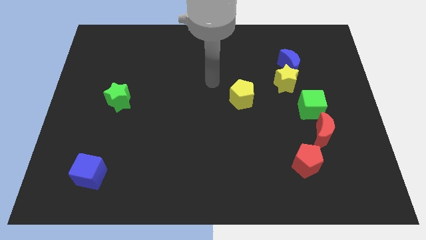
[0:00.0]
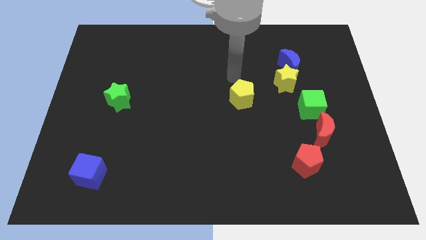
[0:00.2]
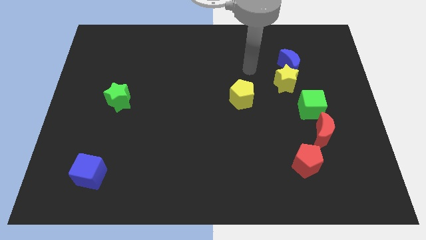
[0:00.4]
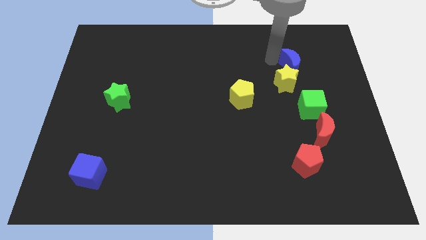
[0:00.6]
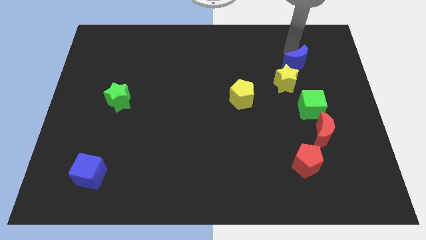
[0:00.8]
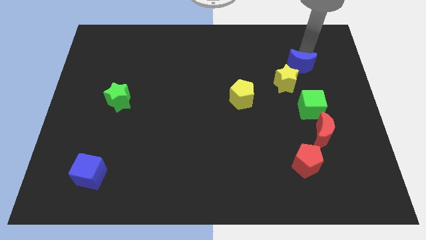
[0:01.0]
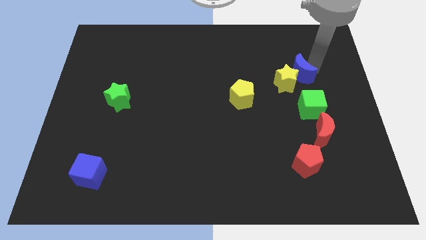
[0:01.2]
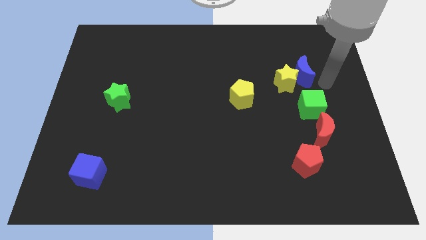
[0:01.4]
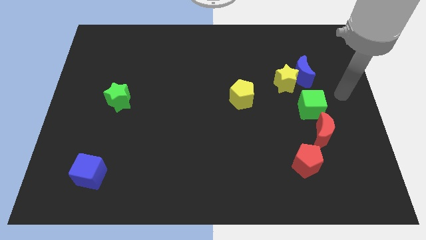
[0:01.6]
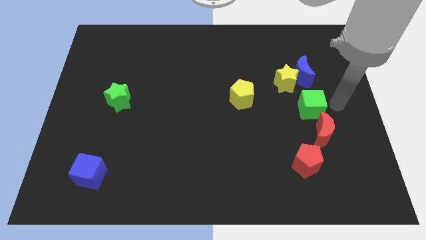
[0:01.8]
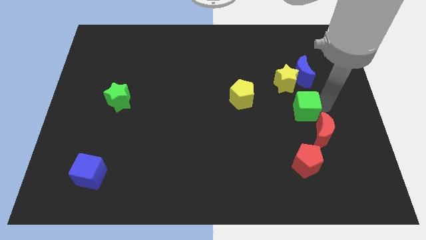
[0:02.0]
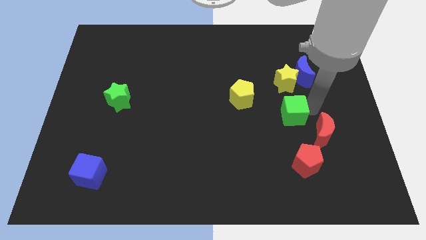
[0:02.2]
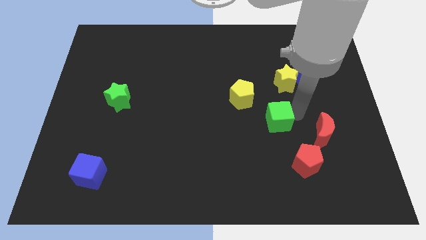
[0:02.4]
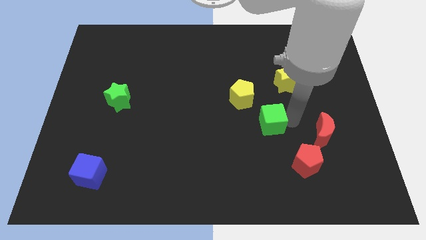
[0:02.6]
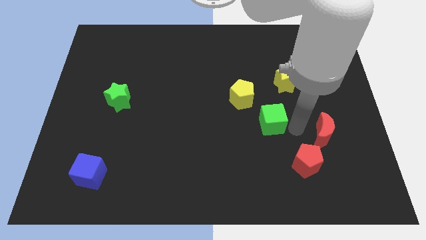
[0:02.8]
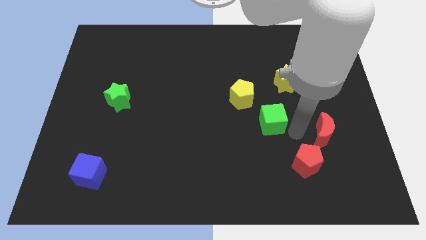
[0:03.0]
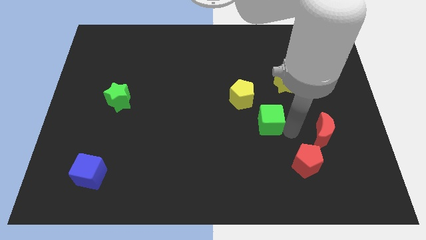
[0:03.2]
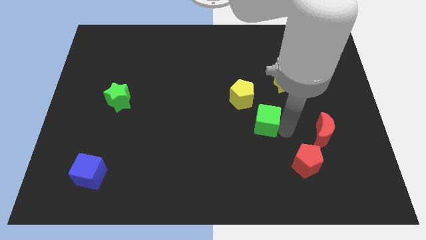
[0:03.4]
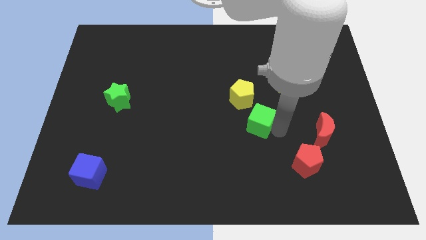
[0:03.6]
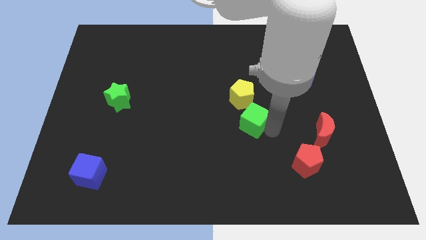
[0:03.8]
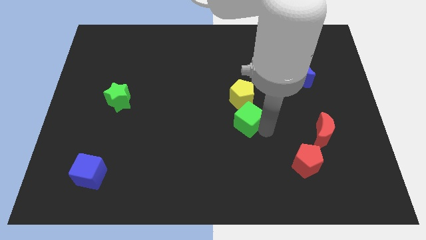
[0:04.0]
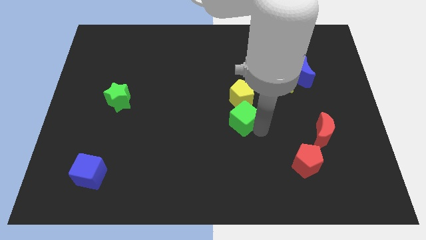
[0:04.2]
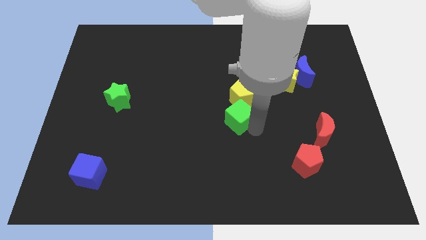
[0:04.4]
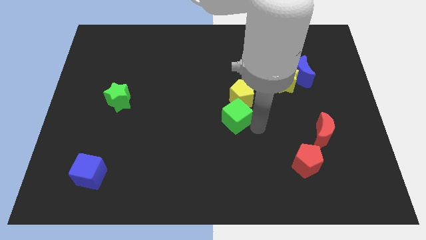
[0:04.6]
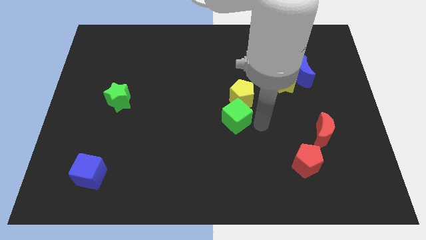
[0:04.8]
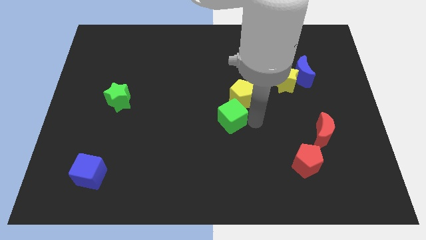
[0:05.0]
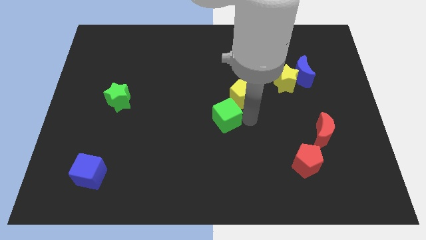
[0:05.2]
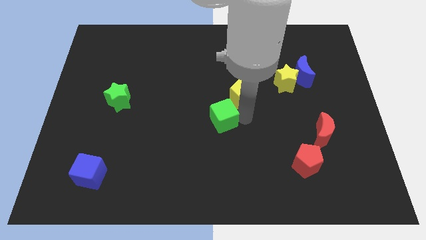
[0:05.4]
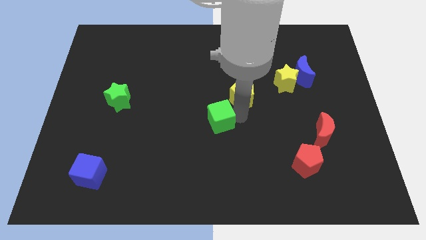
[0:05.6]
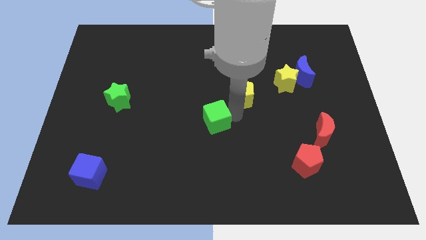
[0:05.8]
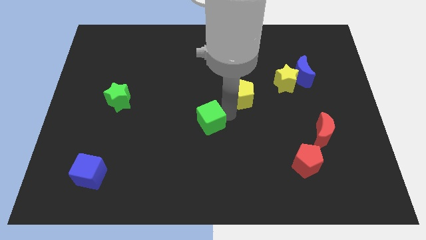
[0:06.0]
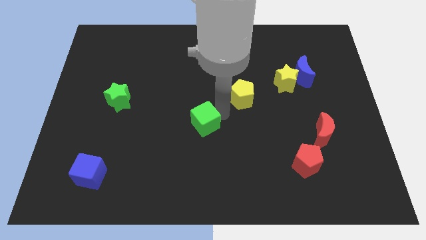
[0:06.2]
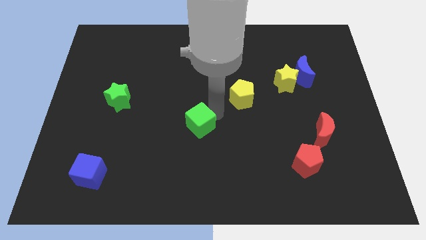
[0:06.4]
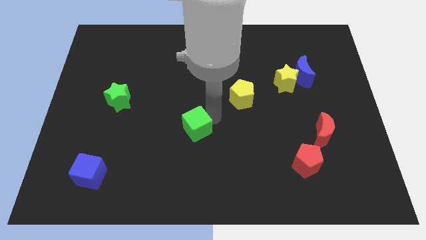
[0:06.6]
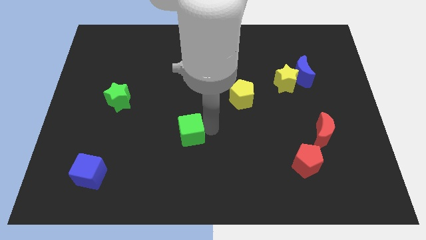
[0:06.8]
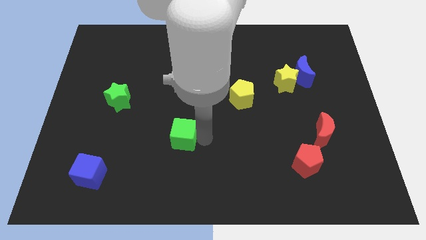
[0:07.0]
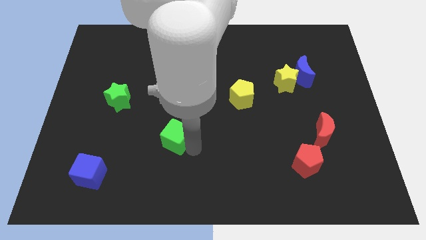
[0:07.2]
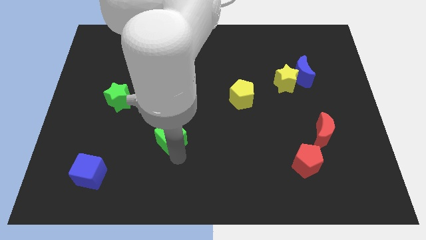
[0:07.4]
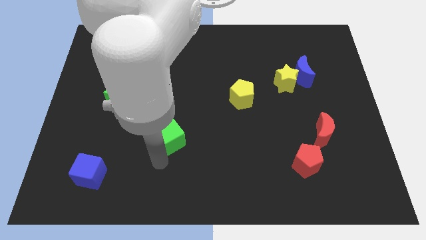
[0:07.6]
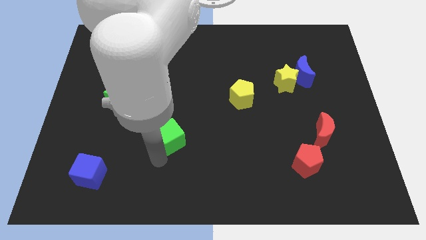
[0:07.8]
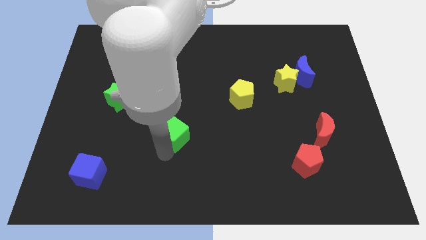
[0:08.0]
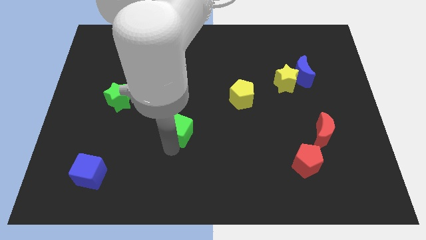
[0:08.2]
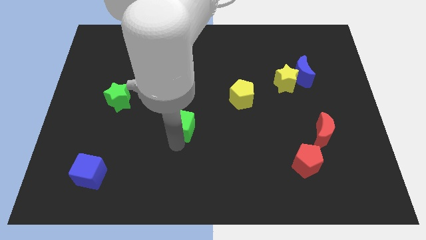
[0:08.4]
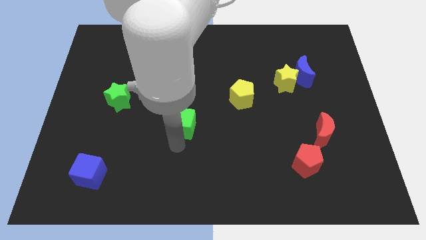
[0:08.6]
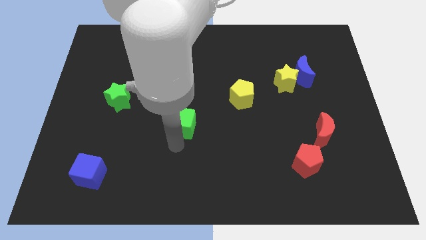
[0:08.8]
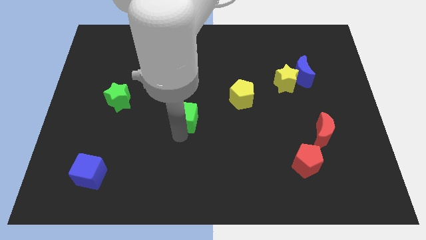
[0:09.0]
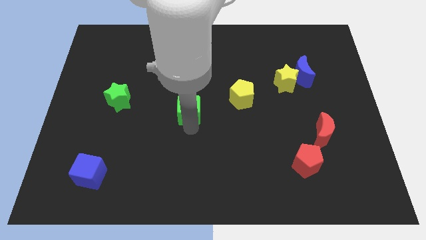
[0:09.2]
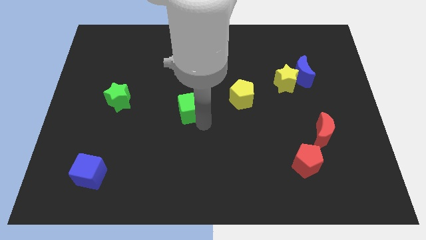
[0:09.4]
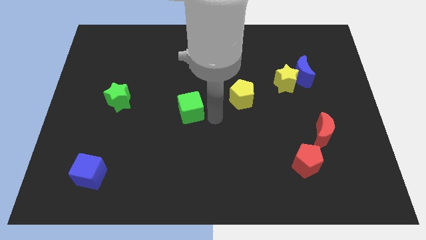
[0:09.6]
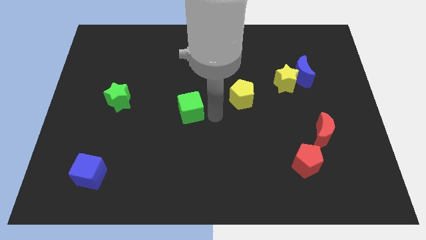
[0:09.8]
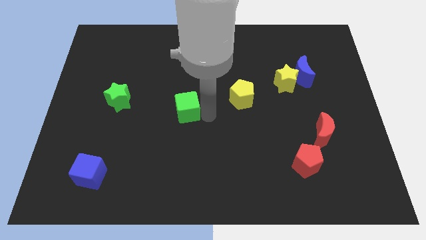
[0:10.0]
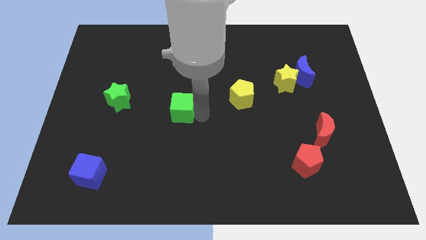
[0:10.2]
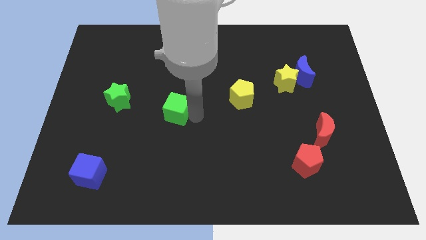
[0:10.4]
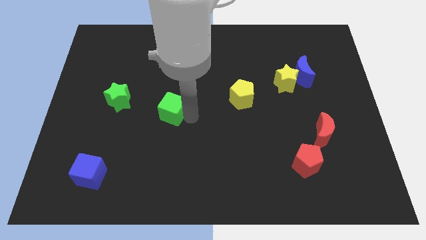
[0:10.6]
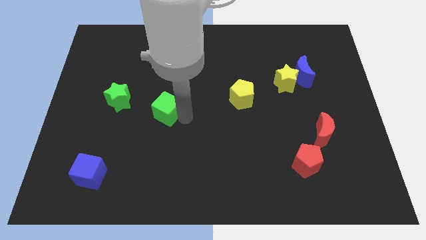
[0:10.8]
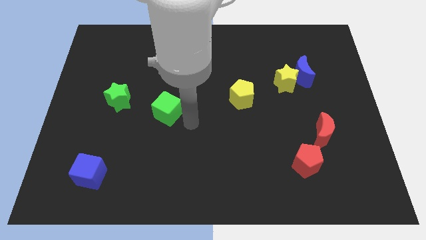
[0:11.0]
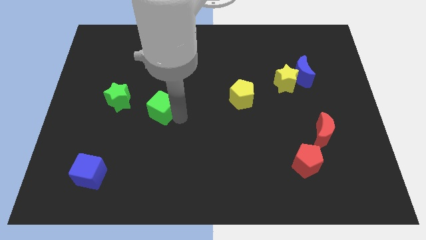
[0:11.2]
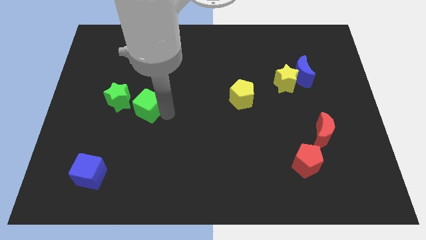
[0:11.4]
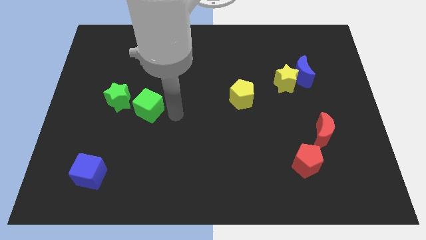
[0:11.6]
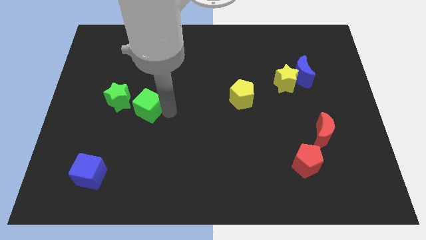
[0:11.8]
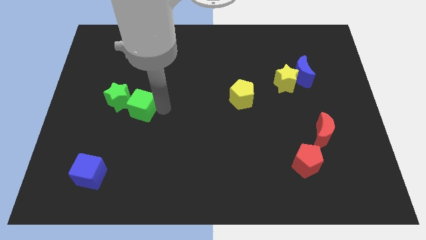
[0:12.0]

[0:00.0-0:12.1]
slide the green cube to the green star
